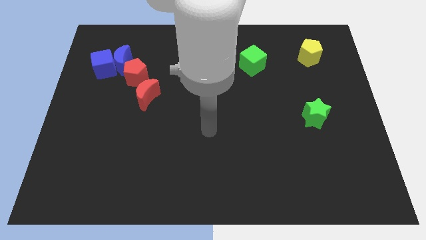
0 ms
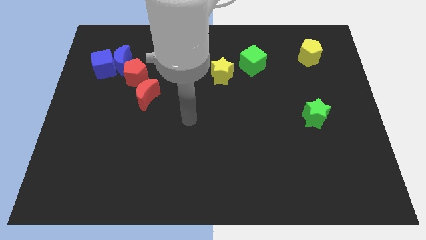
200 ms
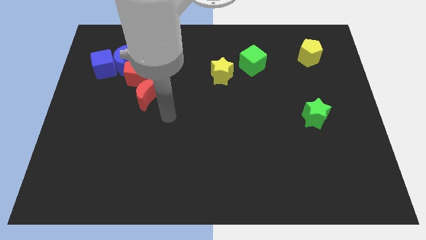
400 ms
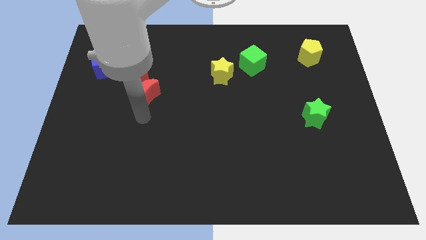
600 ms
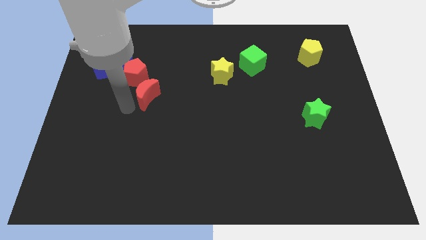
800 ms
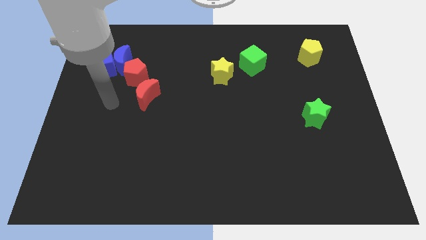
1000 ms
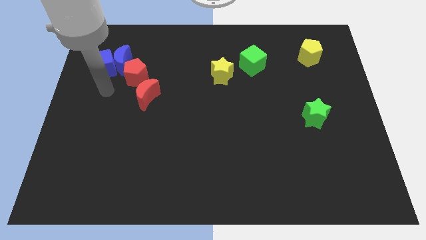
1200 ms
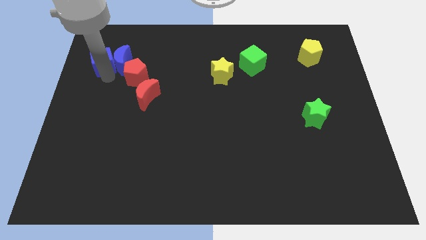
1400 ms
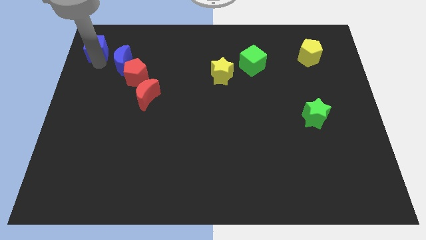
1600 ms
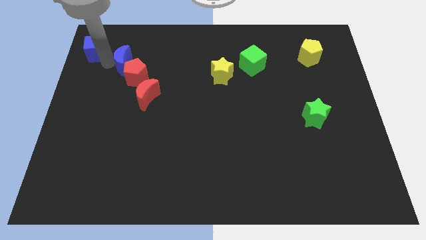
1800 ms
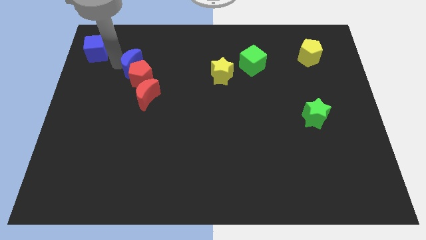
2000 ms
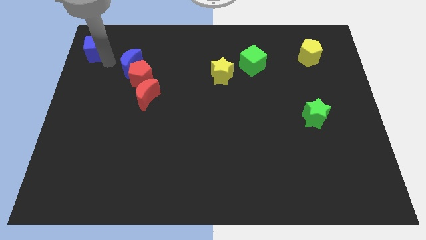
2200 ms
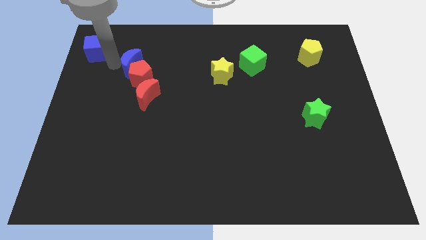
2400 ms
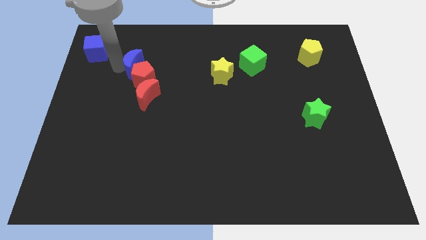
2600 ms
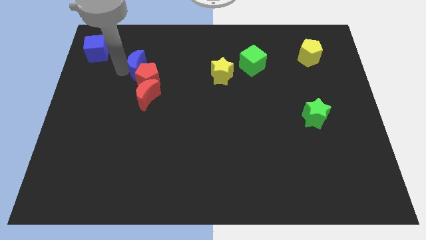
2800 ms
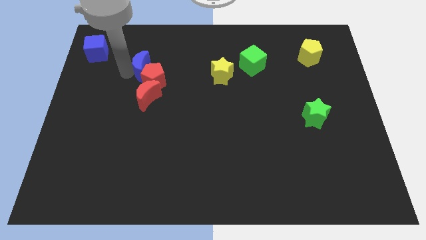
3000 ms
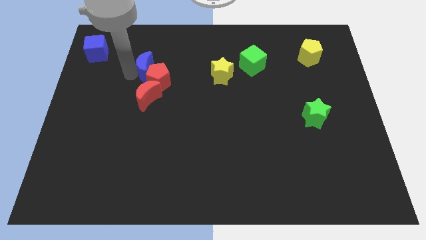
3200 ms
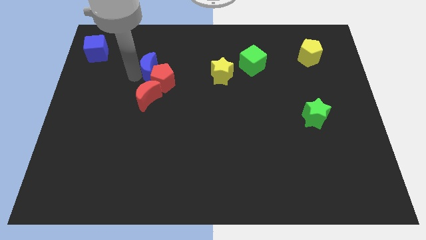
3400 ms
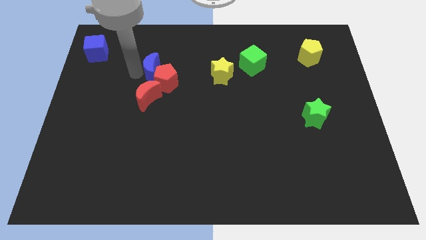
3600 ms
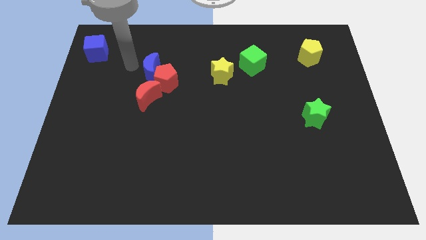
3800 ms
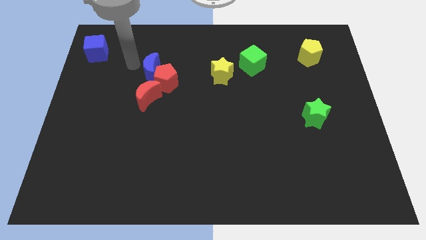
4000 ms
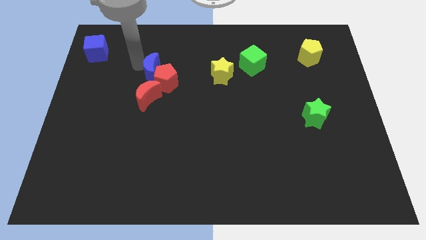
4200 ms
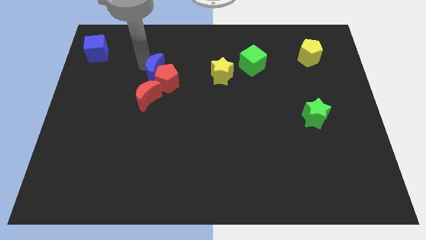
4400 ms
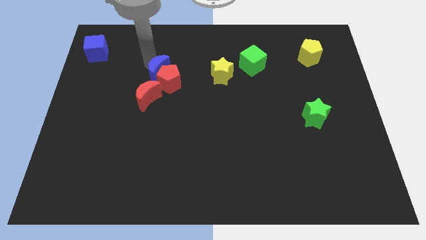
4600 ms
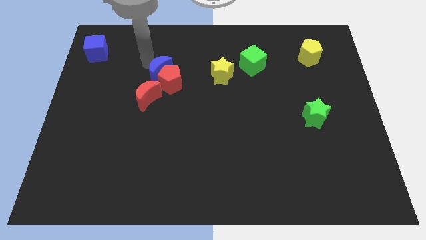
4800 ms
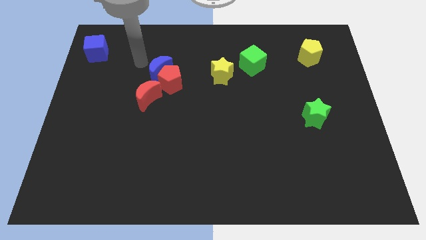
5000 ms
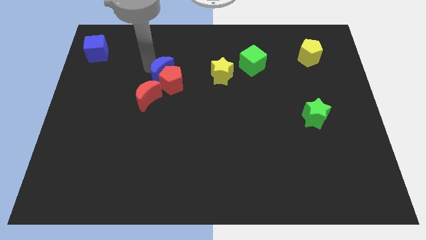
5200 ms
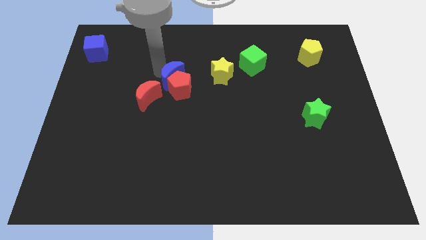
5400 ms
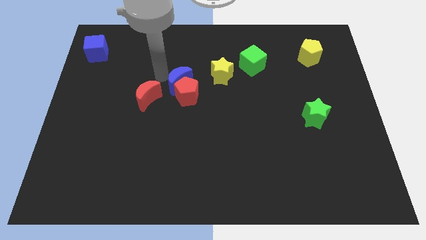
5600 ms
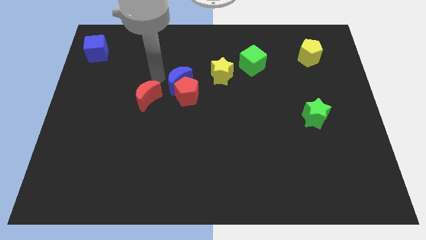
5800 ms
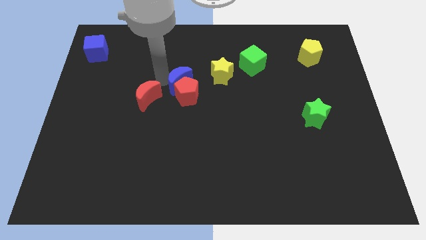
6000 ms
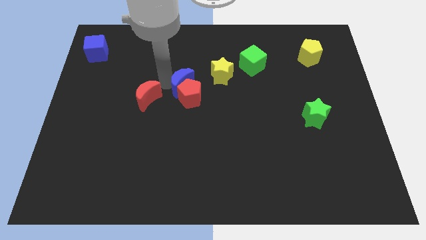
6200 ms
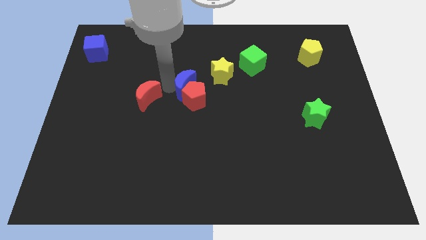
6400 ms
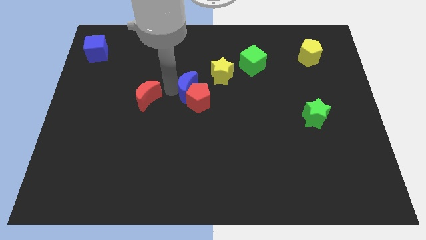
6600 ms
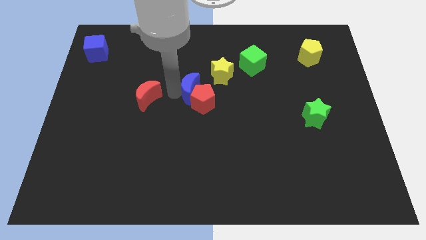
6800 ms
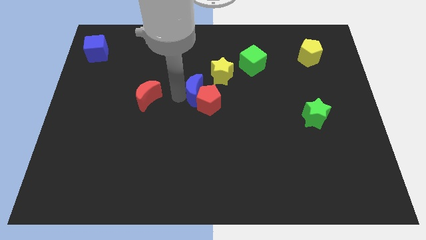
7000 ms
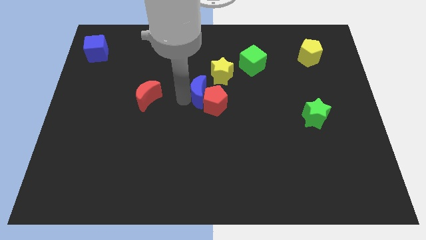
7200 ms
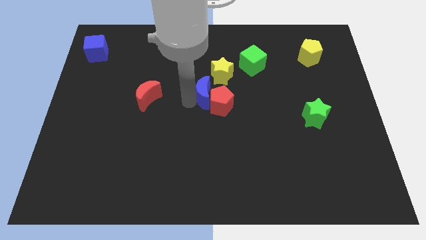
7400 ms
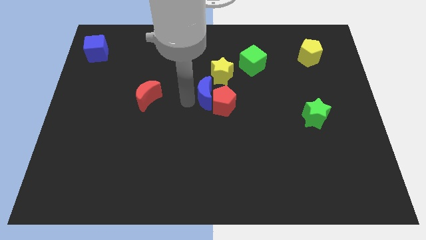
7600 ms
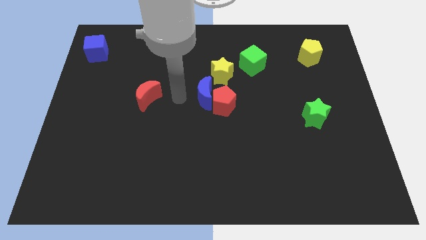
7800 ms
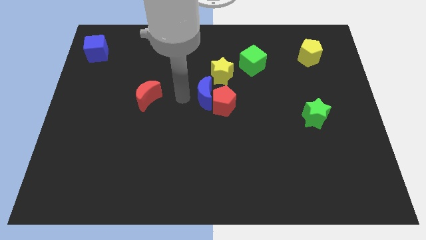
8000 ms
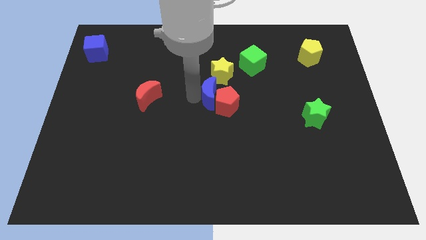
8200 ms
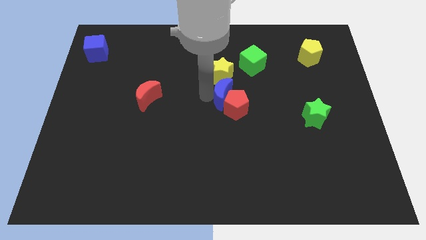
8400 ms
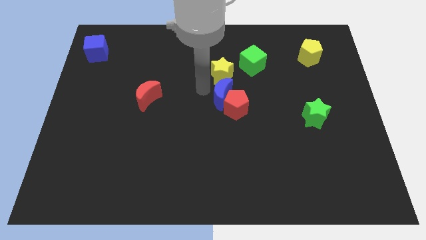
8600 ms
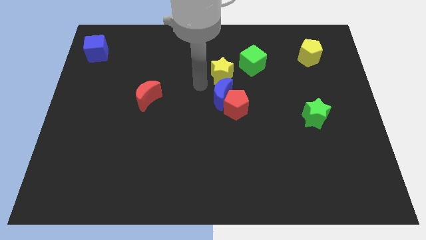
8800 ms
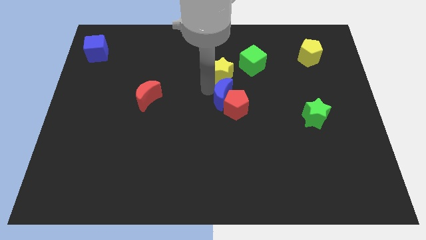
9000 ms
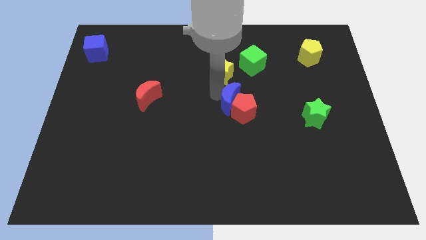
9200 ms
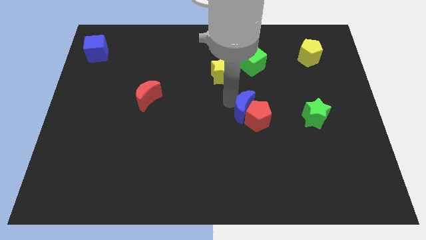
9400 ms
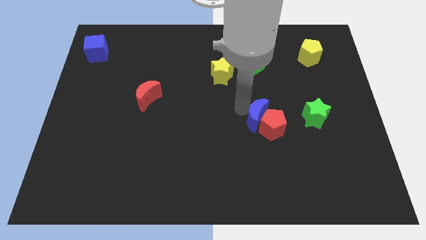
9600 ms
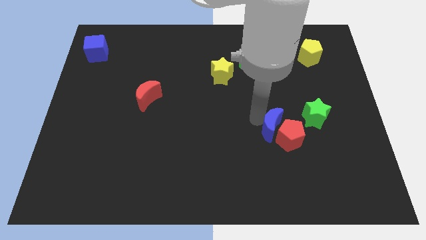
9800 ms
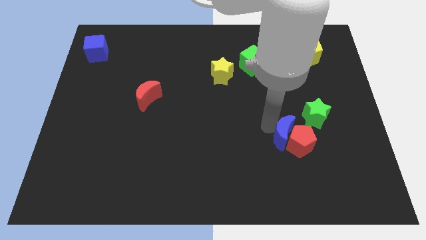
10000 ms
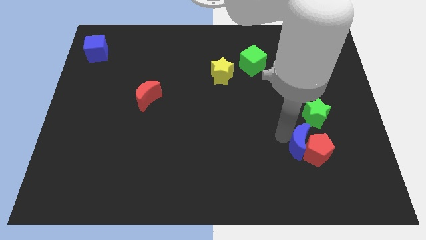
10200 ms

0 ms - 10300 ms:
move the blue moon below the green star

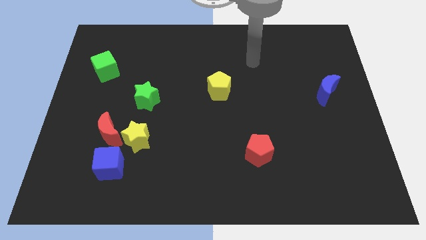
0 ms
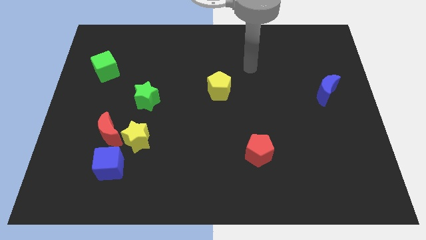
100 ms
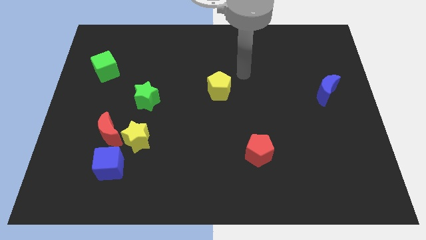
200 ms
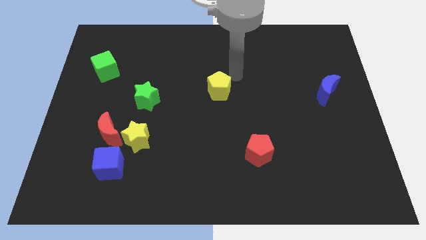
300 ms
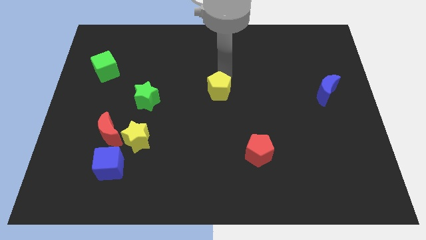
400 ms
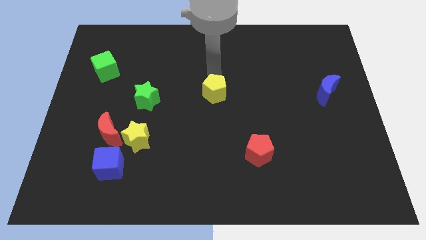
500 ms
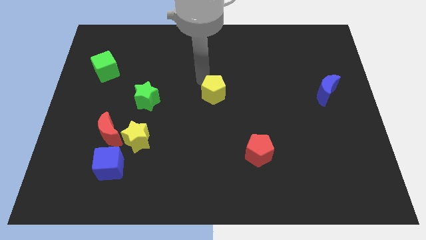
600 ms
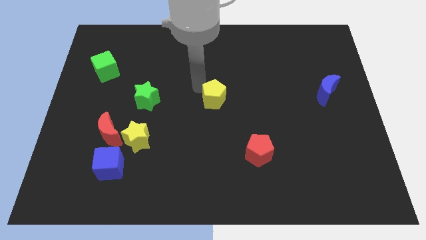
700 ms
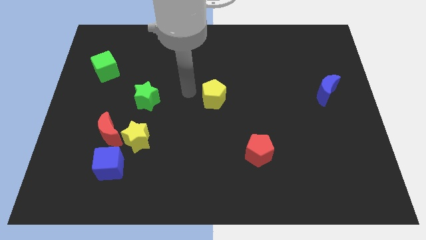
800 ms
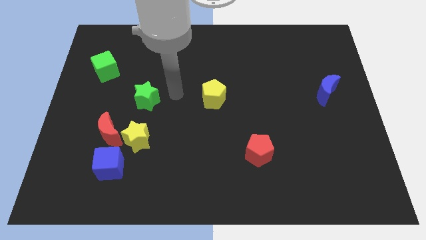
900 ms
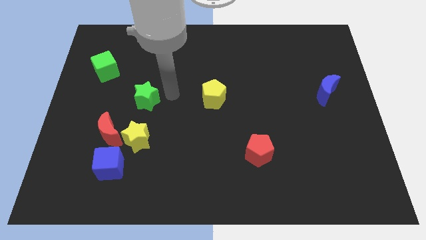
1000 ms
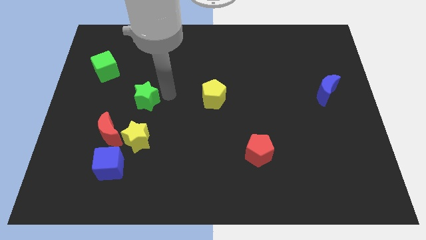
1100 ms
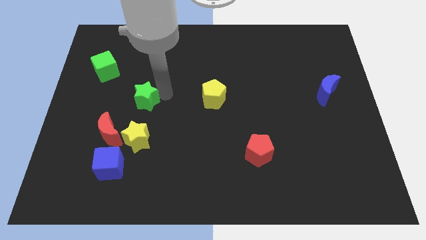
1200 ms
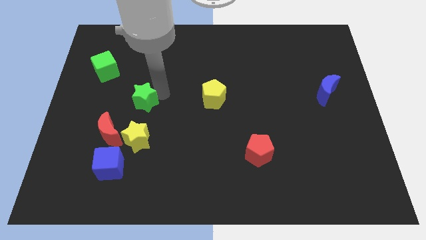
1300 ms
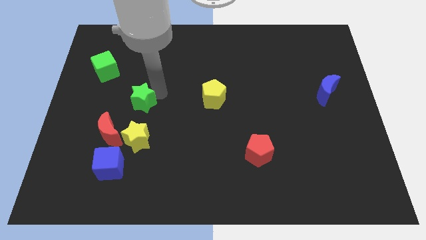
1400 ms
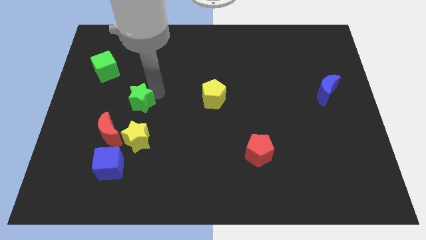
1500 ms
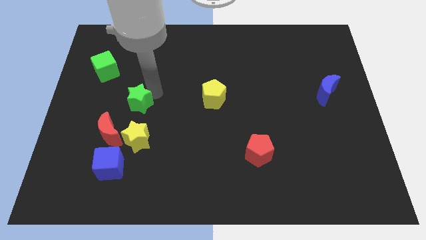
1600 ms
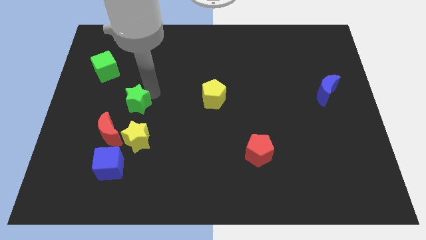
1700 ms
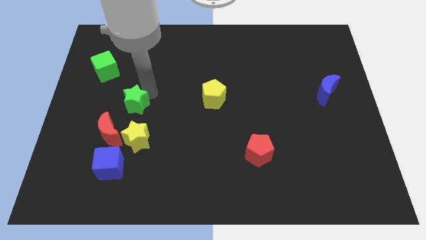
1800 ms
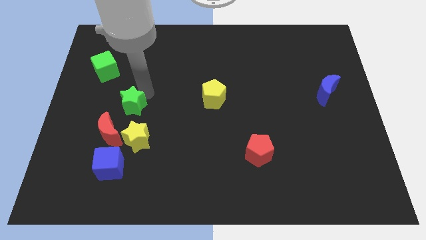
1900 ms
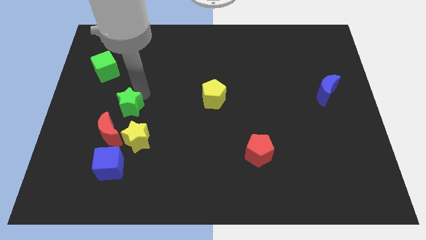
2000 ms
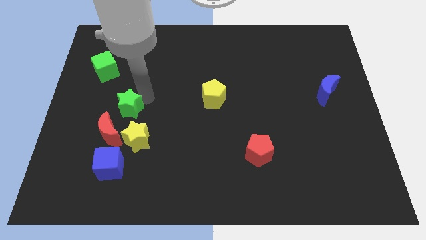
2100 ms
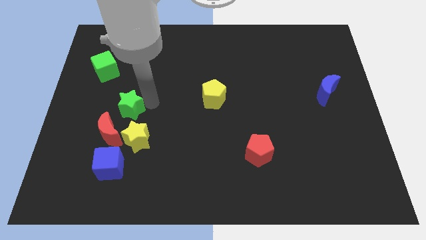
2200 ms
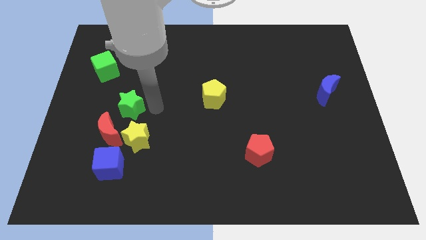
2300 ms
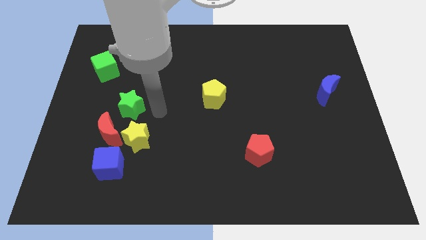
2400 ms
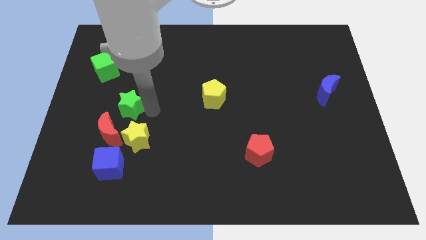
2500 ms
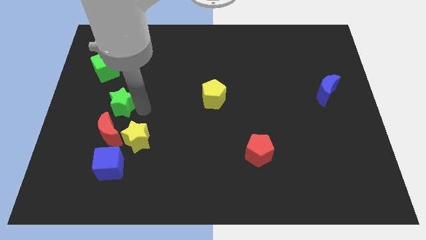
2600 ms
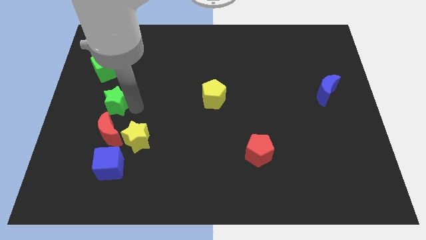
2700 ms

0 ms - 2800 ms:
move the green star below the green cube

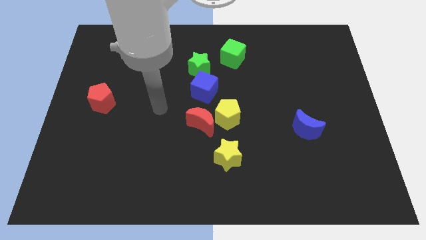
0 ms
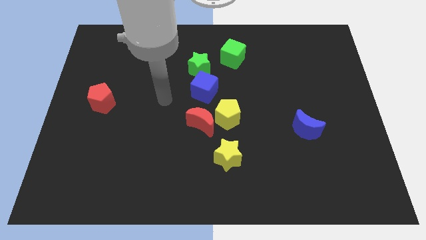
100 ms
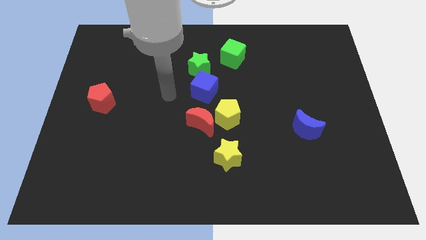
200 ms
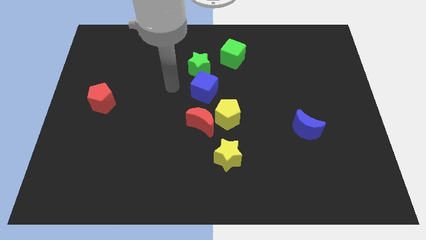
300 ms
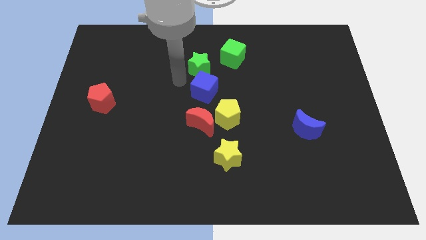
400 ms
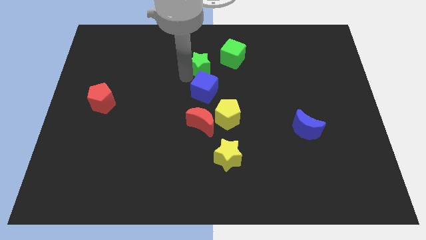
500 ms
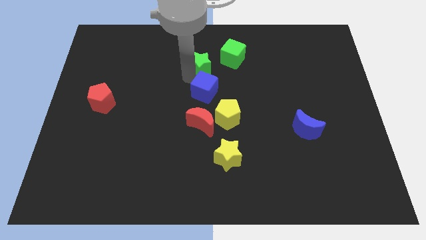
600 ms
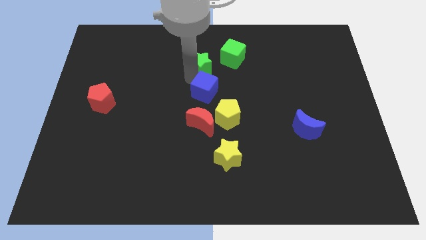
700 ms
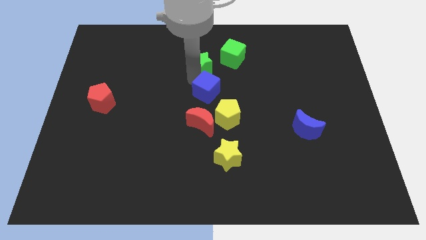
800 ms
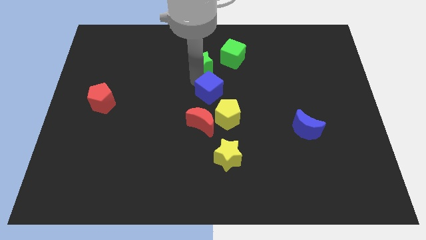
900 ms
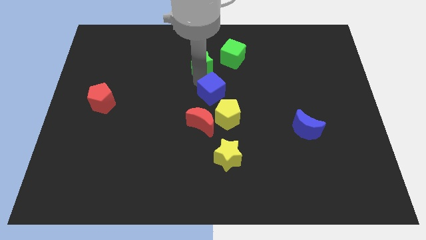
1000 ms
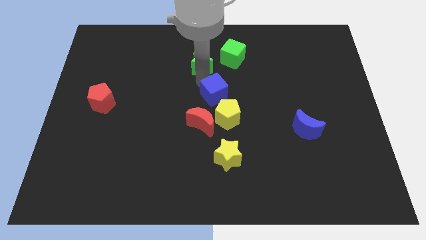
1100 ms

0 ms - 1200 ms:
move the blue cube to the top right of the red moon
